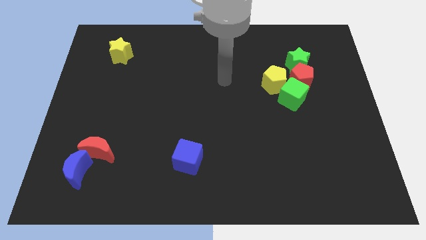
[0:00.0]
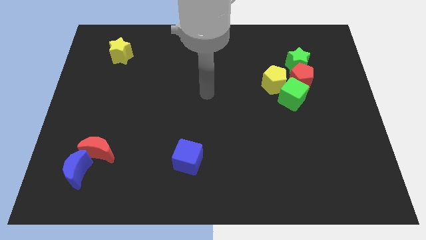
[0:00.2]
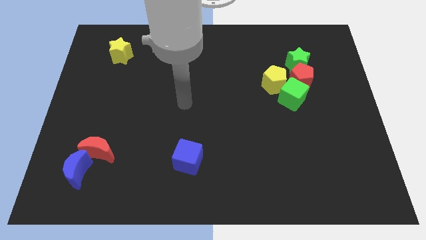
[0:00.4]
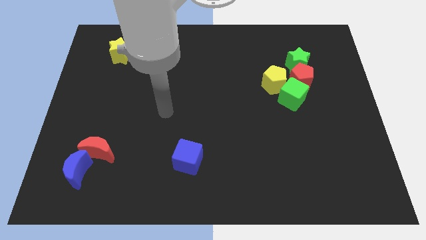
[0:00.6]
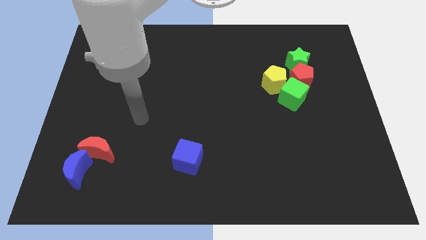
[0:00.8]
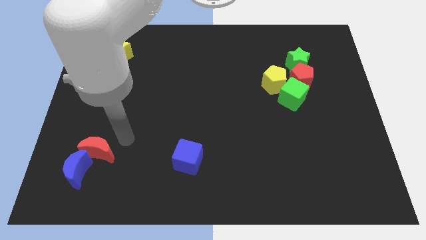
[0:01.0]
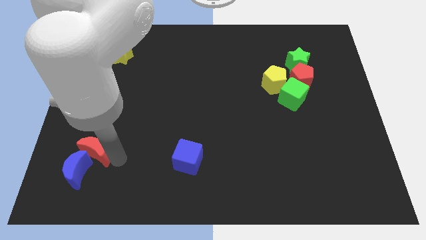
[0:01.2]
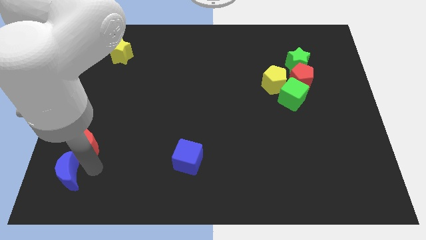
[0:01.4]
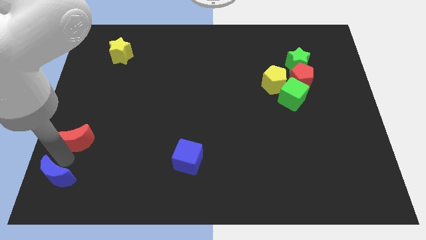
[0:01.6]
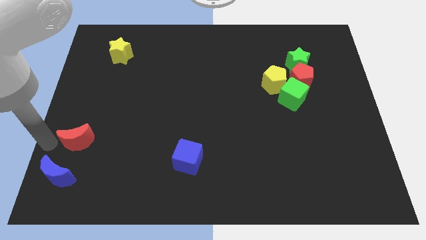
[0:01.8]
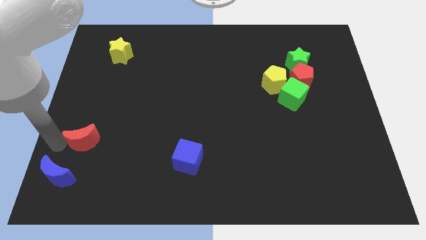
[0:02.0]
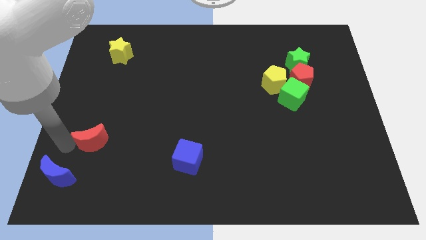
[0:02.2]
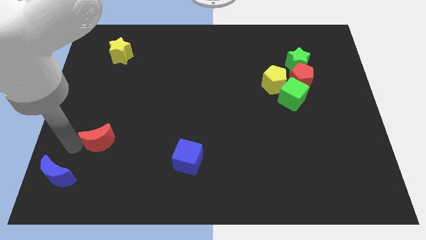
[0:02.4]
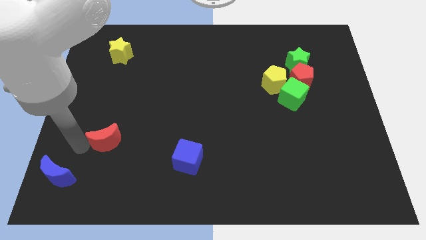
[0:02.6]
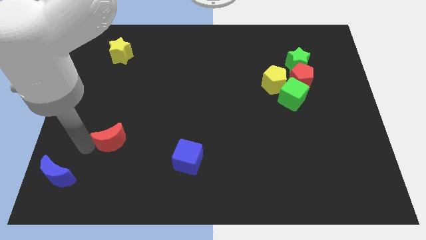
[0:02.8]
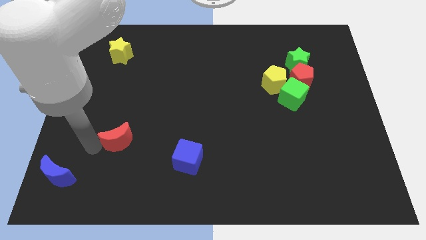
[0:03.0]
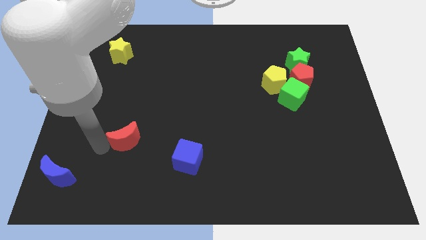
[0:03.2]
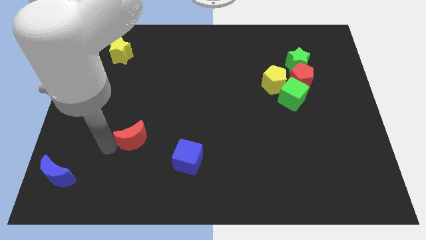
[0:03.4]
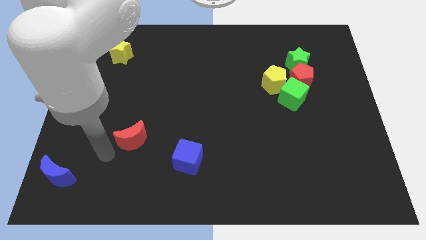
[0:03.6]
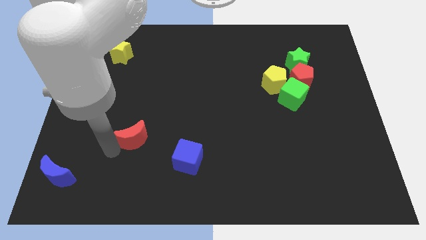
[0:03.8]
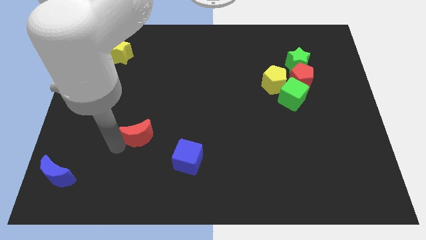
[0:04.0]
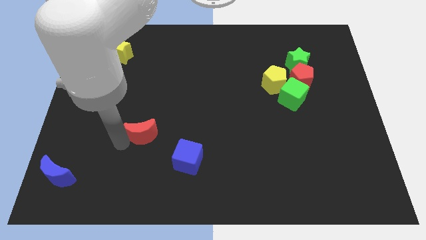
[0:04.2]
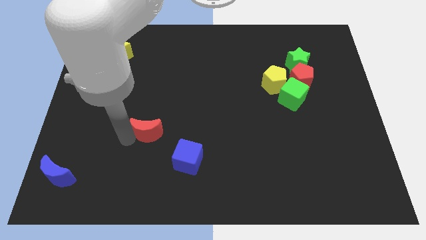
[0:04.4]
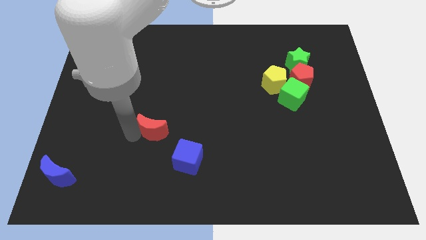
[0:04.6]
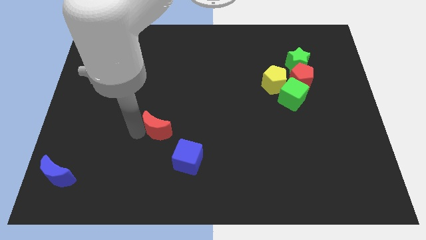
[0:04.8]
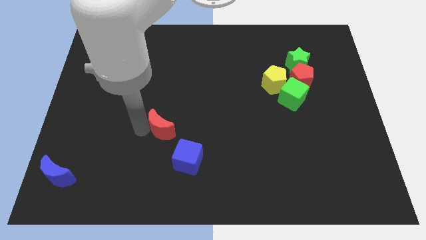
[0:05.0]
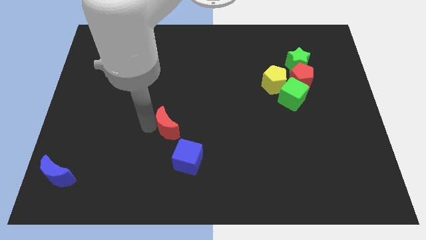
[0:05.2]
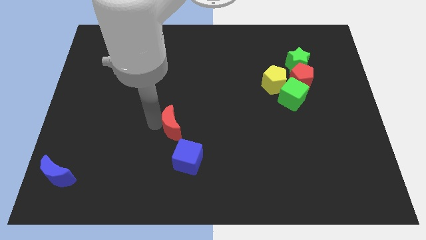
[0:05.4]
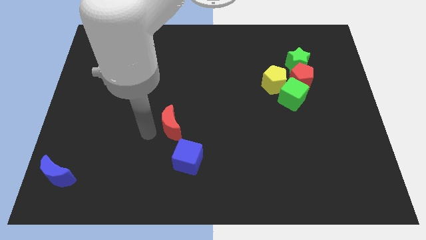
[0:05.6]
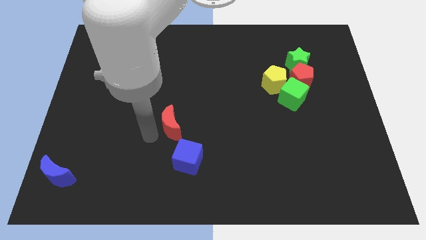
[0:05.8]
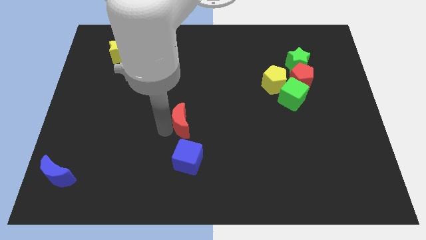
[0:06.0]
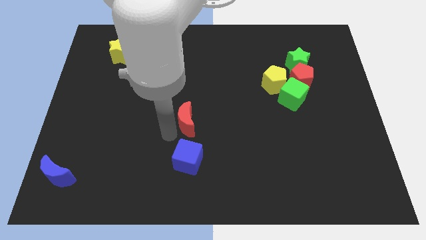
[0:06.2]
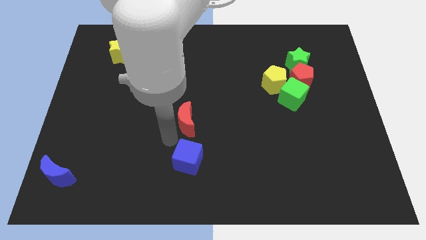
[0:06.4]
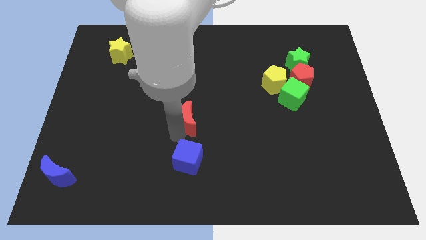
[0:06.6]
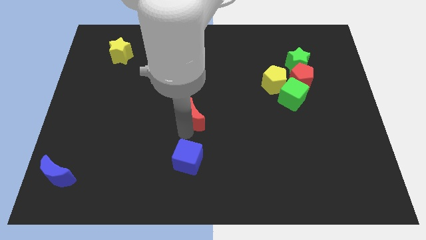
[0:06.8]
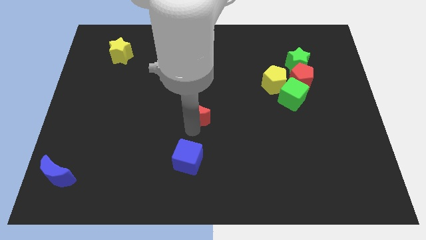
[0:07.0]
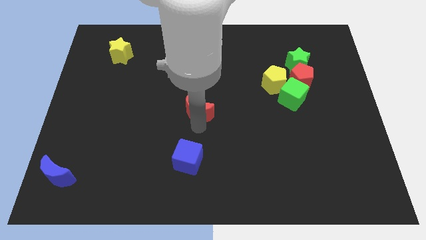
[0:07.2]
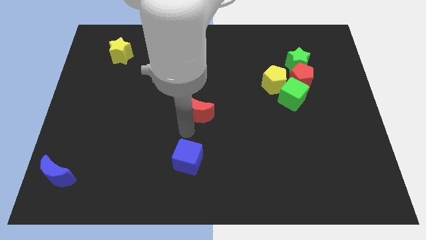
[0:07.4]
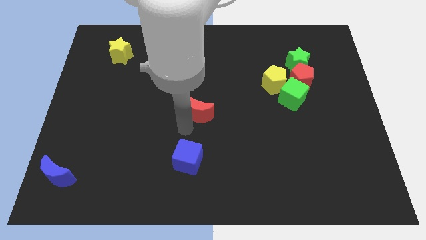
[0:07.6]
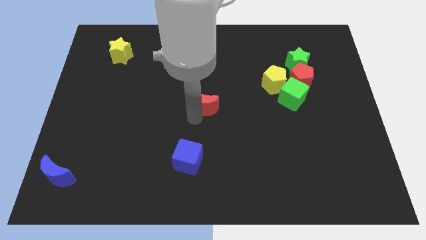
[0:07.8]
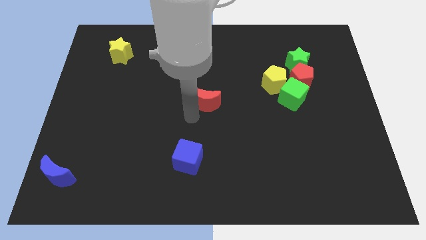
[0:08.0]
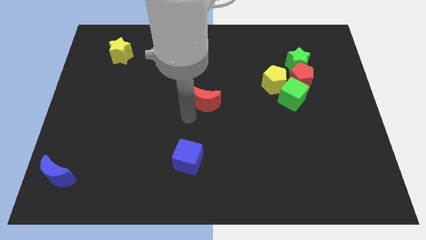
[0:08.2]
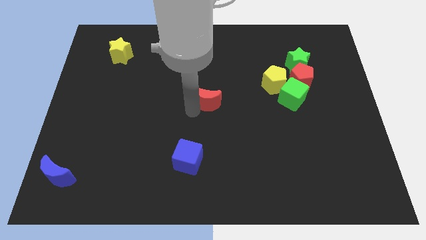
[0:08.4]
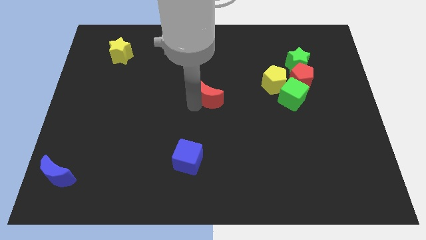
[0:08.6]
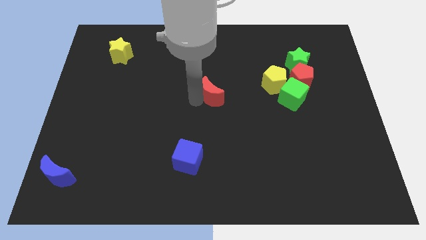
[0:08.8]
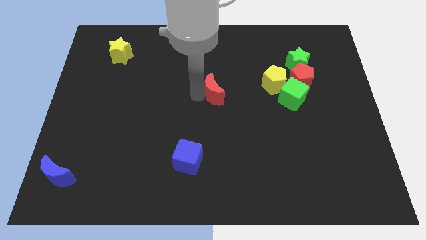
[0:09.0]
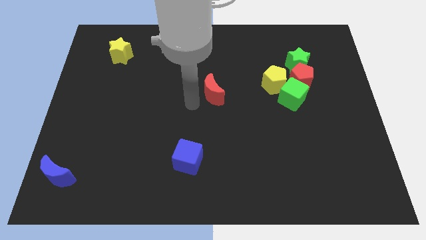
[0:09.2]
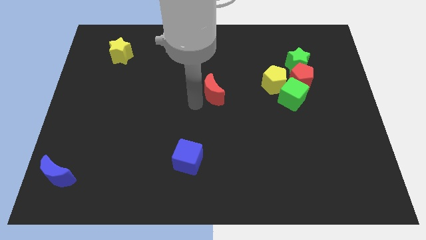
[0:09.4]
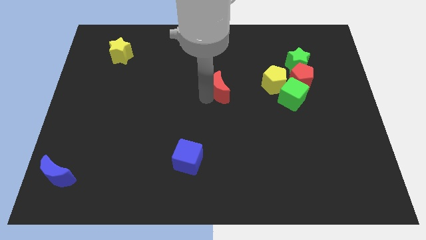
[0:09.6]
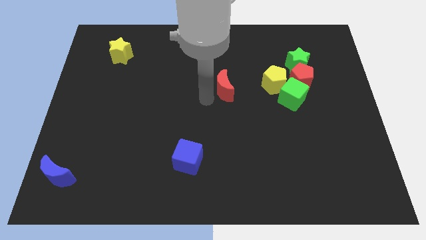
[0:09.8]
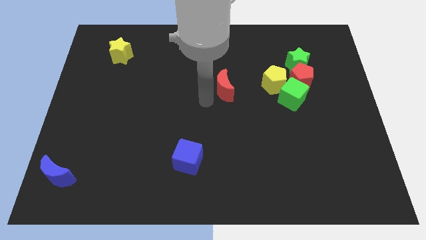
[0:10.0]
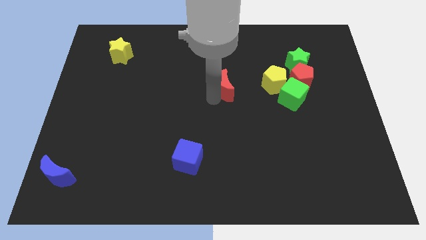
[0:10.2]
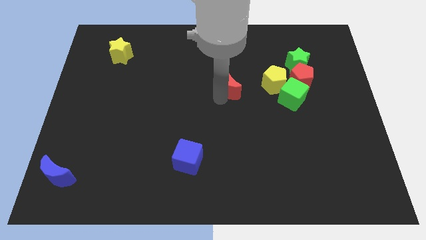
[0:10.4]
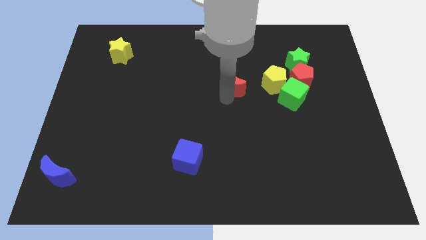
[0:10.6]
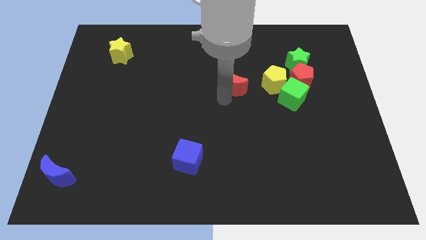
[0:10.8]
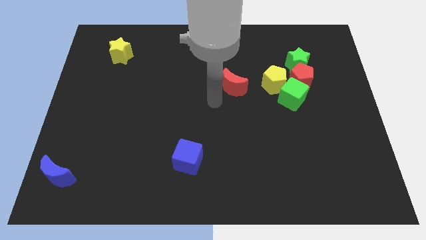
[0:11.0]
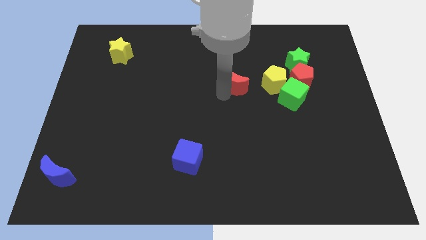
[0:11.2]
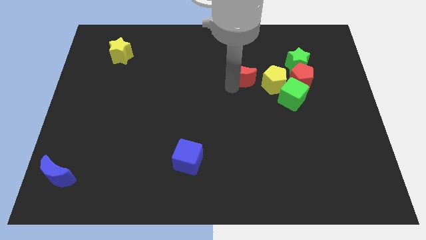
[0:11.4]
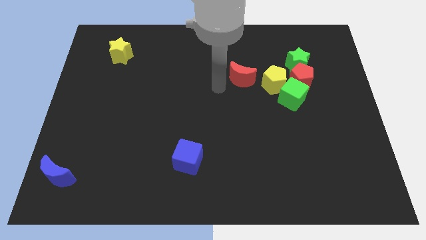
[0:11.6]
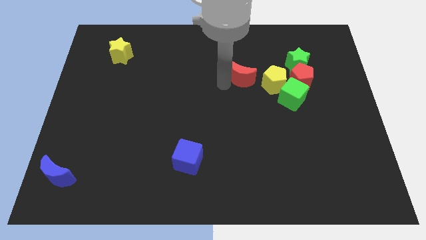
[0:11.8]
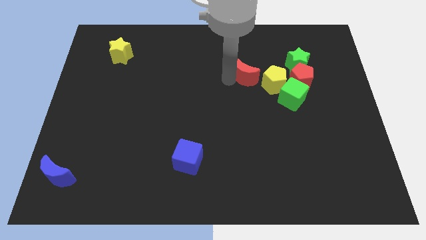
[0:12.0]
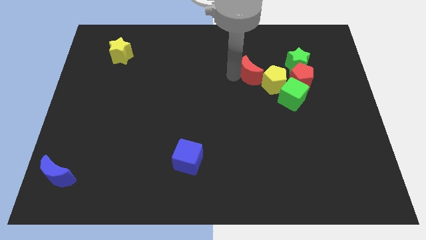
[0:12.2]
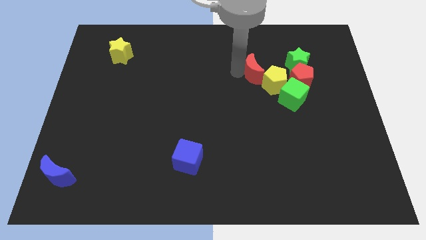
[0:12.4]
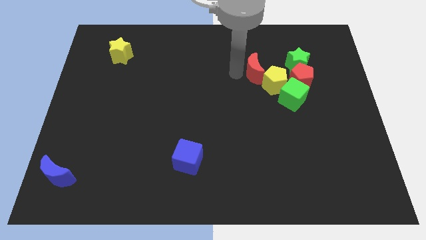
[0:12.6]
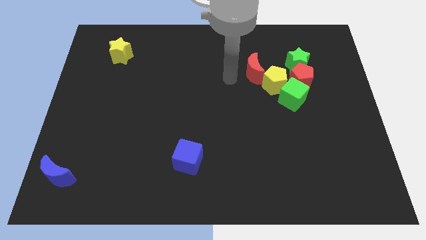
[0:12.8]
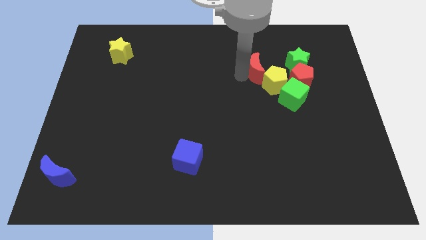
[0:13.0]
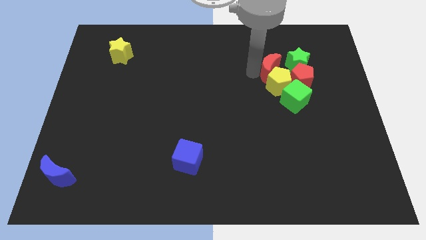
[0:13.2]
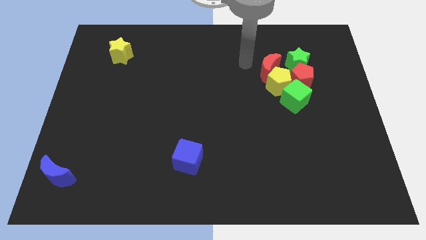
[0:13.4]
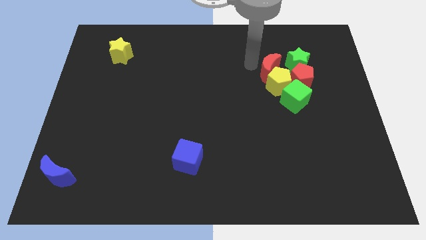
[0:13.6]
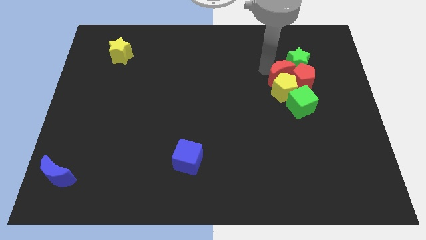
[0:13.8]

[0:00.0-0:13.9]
slide the red moon towards the red pentagon
